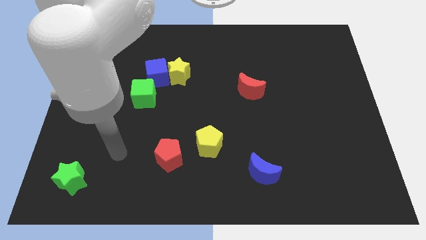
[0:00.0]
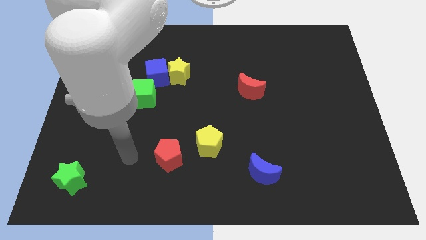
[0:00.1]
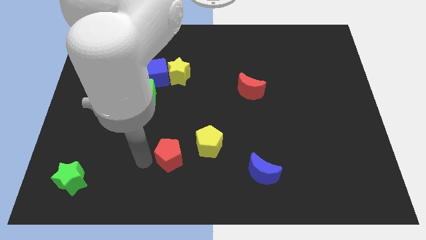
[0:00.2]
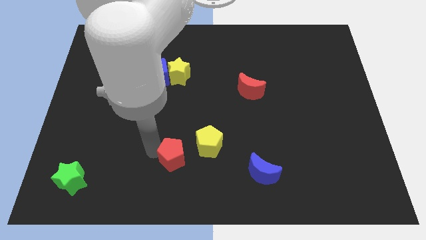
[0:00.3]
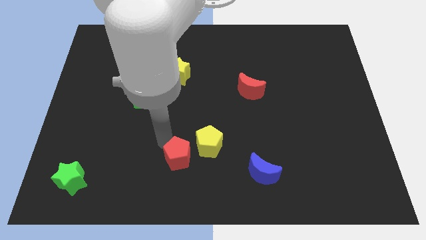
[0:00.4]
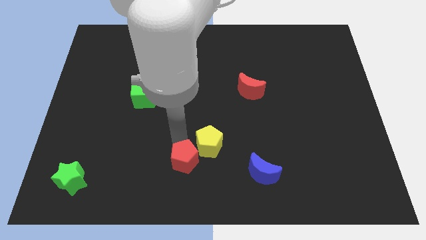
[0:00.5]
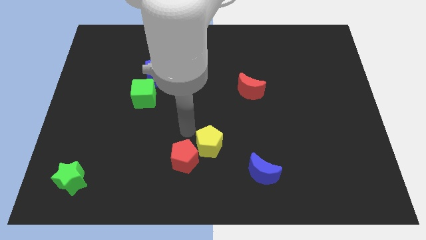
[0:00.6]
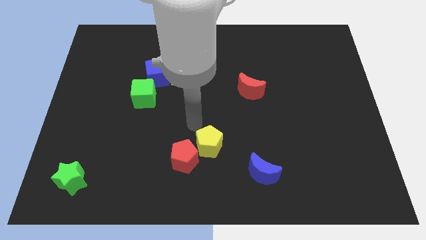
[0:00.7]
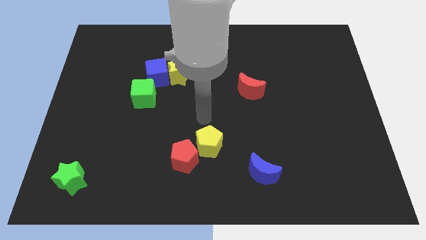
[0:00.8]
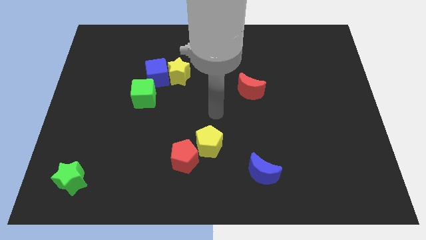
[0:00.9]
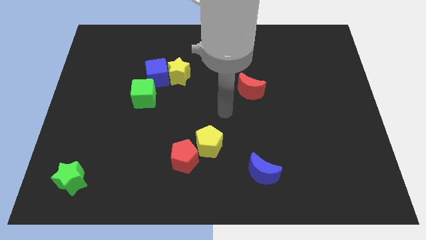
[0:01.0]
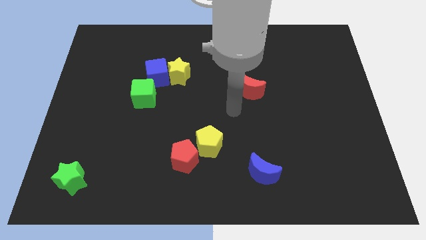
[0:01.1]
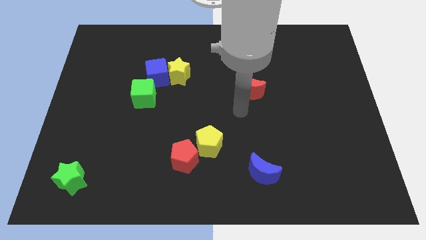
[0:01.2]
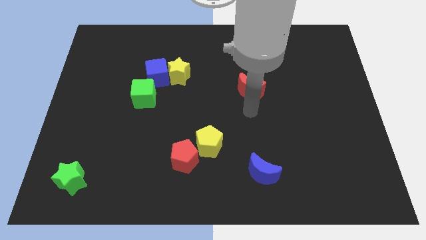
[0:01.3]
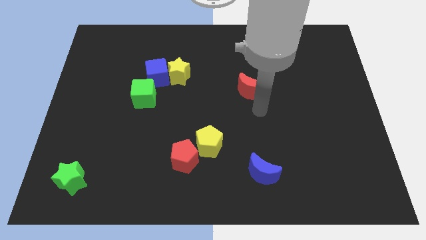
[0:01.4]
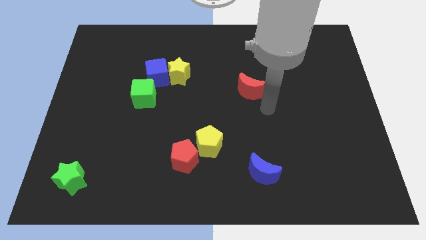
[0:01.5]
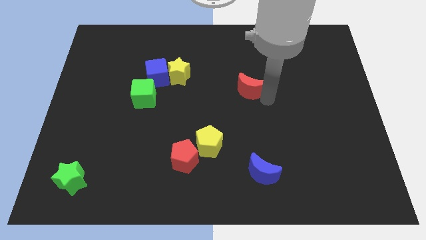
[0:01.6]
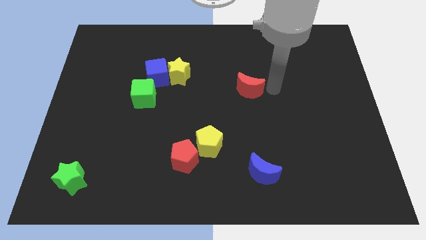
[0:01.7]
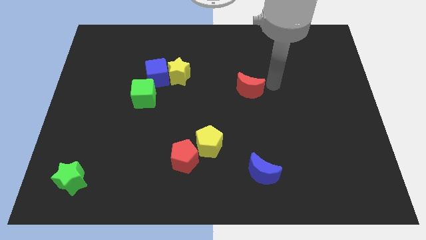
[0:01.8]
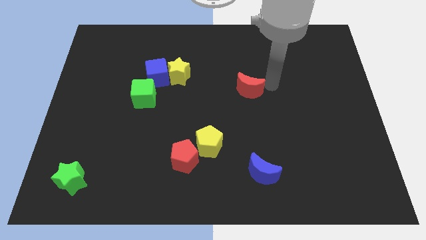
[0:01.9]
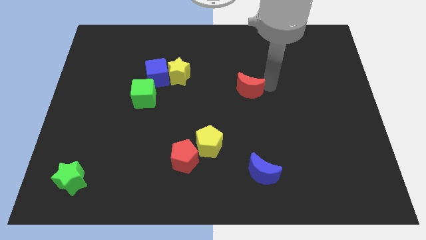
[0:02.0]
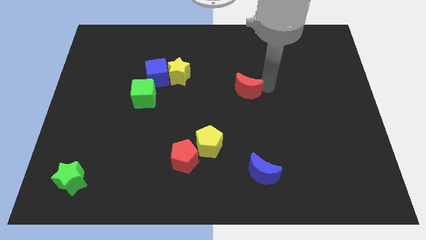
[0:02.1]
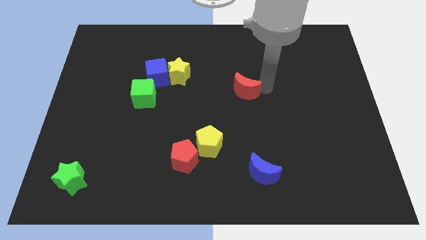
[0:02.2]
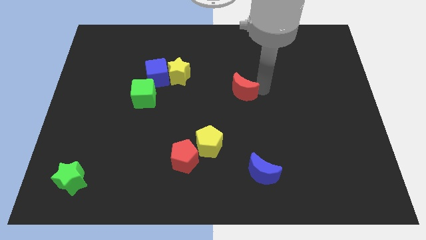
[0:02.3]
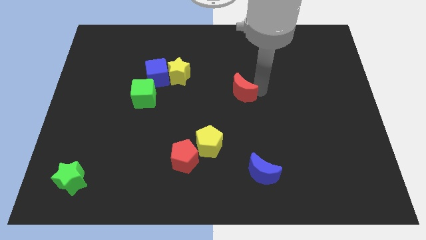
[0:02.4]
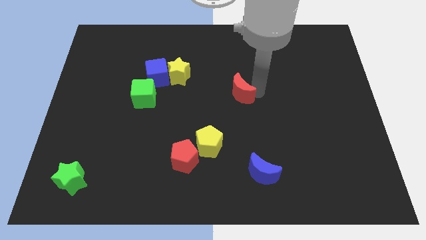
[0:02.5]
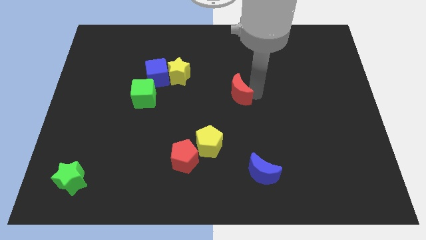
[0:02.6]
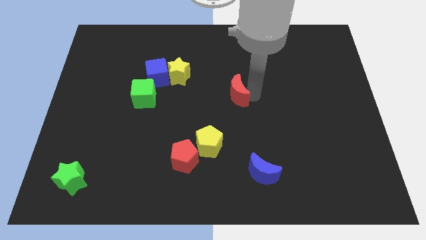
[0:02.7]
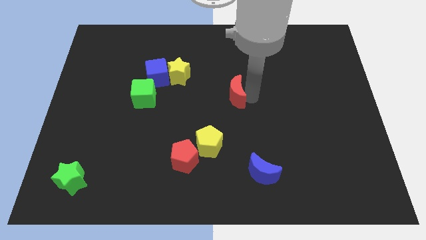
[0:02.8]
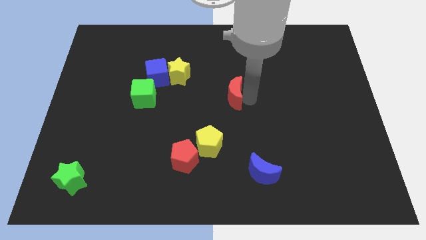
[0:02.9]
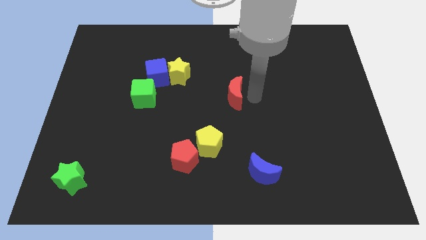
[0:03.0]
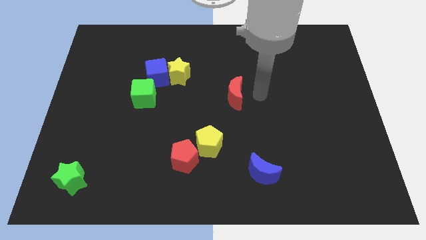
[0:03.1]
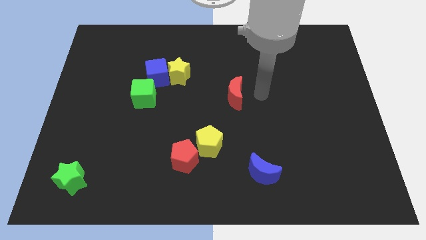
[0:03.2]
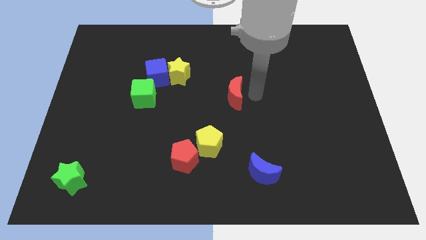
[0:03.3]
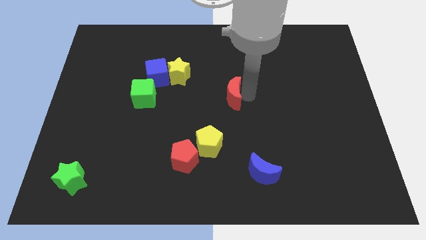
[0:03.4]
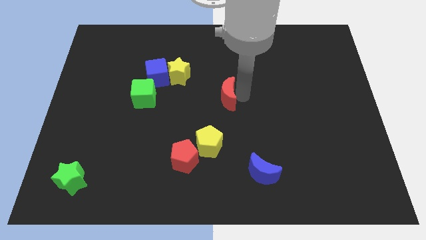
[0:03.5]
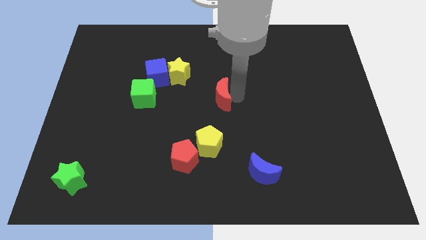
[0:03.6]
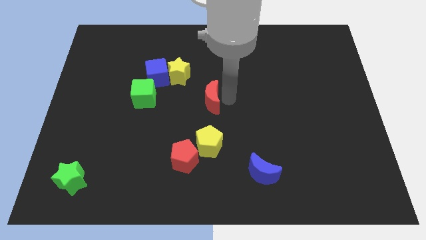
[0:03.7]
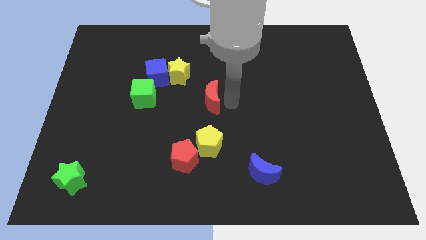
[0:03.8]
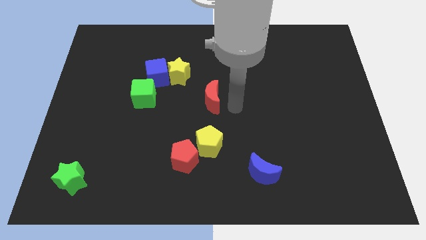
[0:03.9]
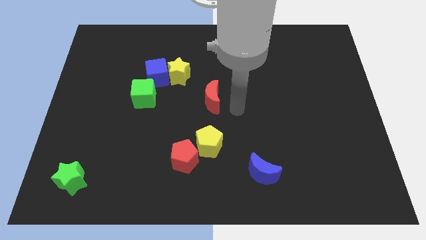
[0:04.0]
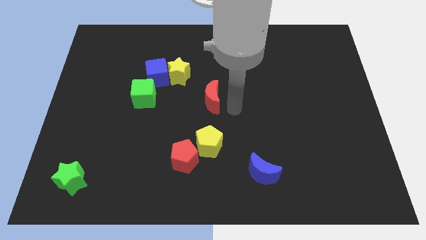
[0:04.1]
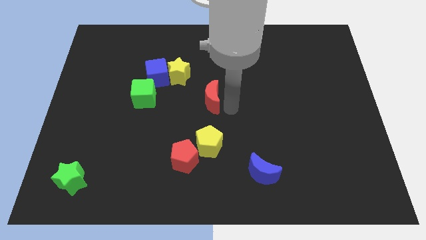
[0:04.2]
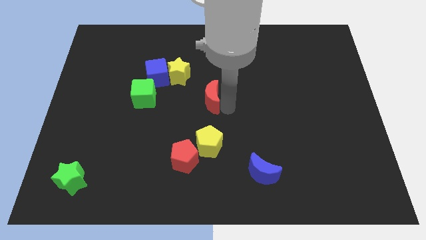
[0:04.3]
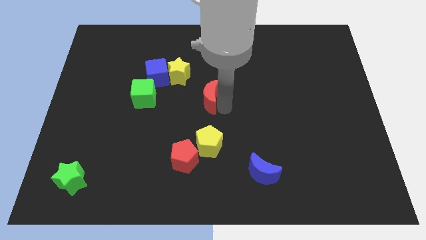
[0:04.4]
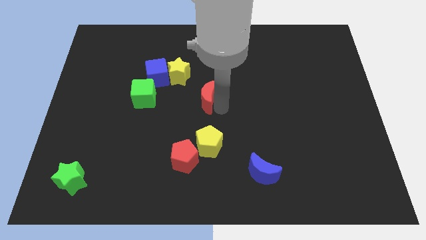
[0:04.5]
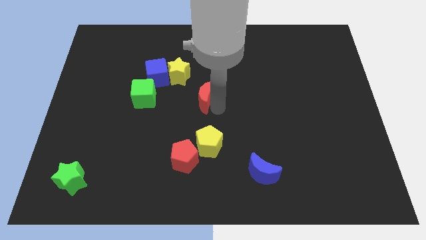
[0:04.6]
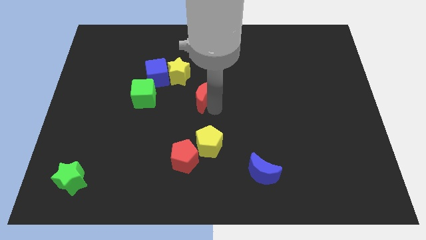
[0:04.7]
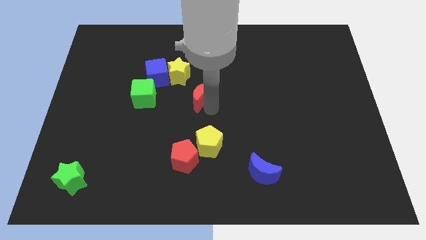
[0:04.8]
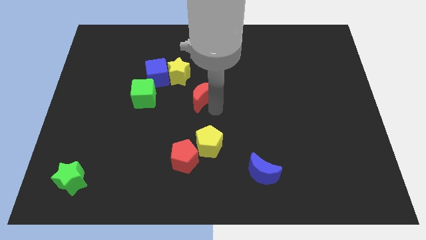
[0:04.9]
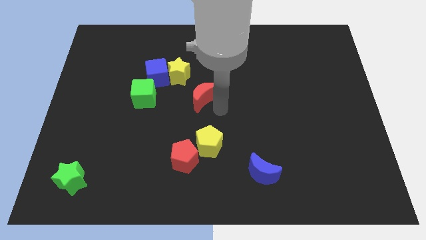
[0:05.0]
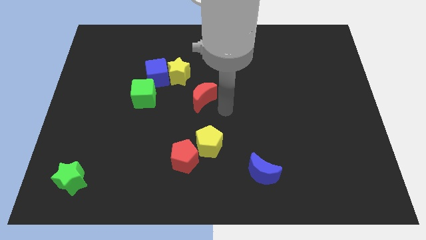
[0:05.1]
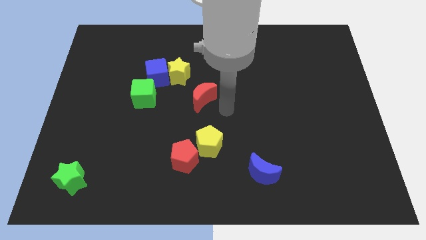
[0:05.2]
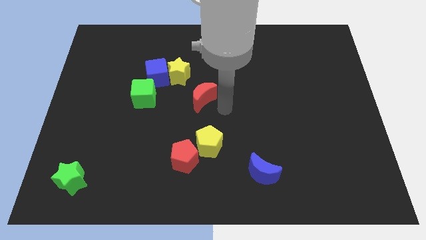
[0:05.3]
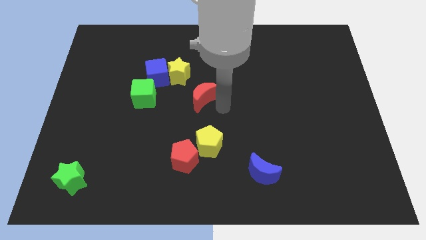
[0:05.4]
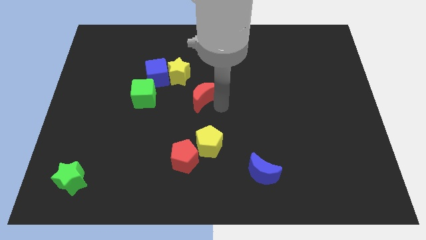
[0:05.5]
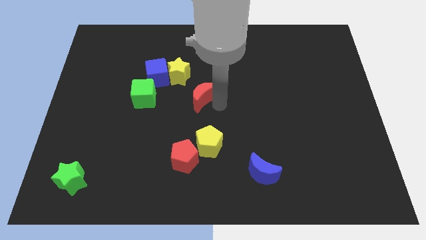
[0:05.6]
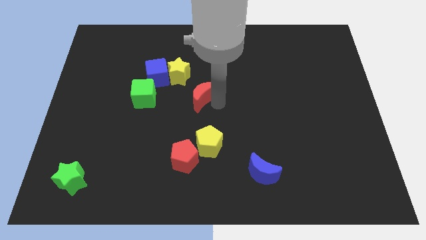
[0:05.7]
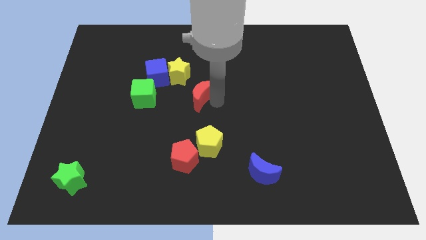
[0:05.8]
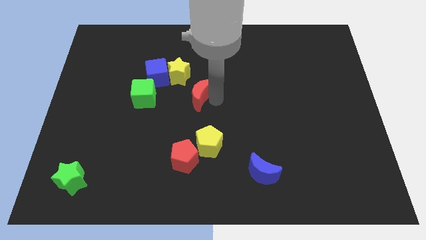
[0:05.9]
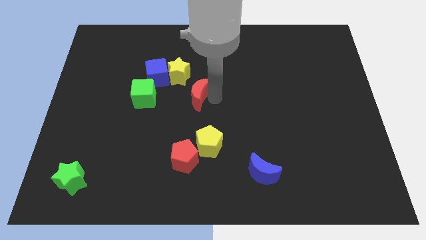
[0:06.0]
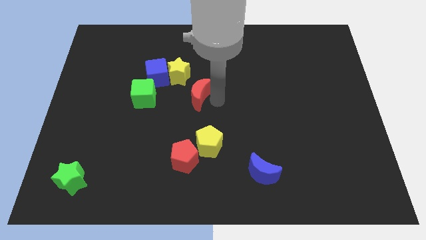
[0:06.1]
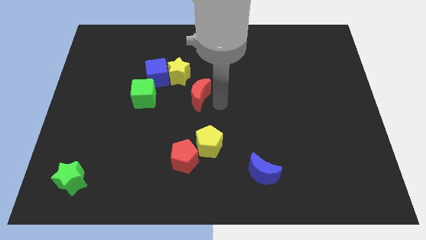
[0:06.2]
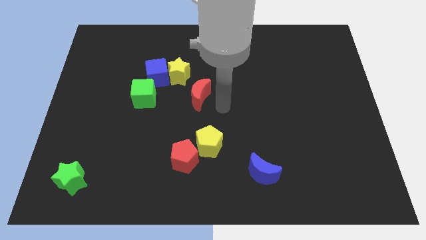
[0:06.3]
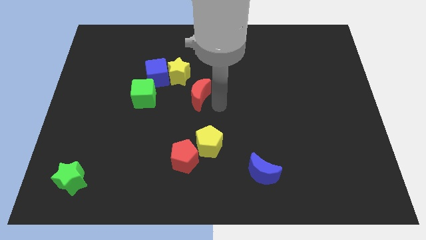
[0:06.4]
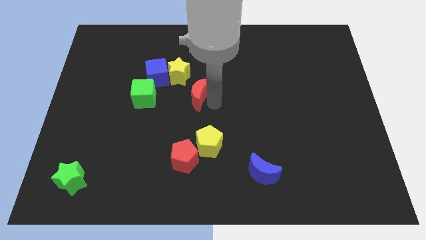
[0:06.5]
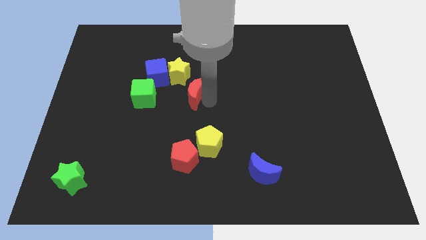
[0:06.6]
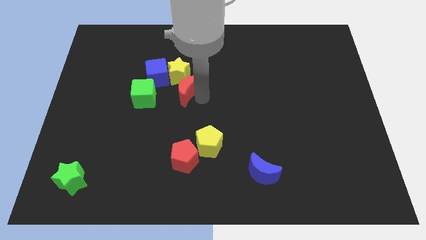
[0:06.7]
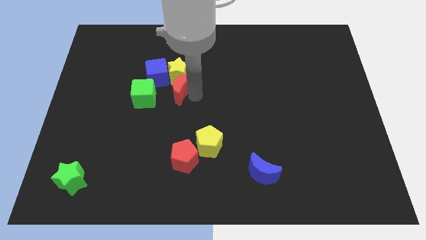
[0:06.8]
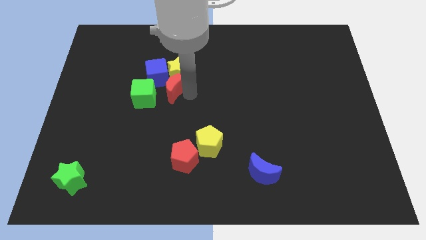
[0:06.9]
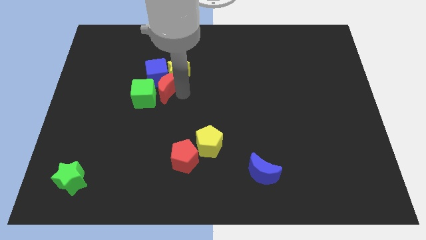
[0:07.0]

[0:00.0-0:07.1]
move the red moon close to the blue cube

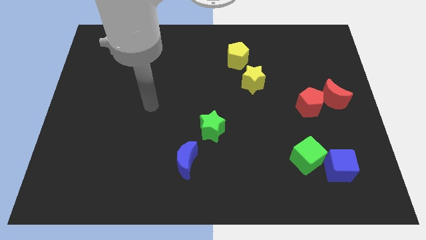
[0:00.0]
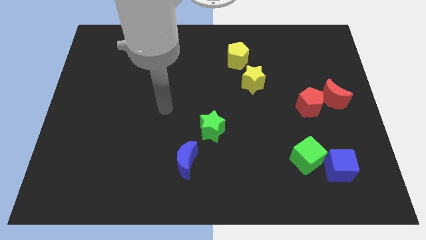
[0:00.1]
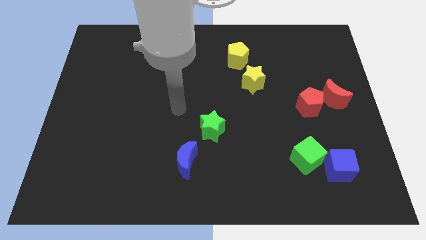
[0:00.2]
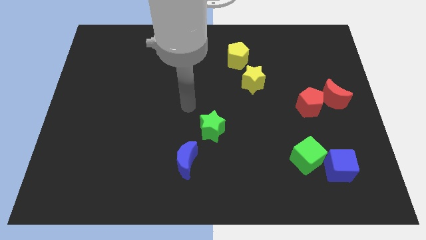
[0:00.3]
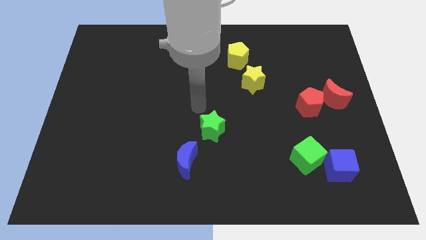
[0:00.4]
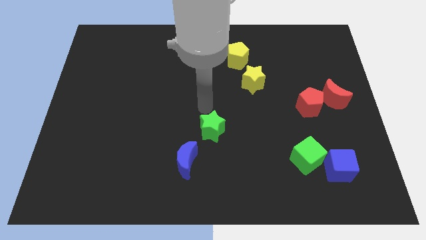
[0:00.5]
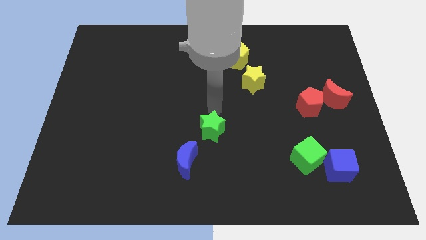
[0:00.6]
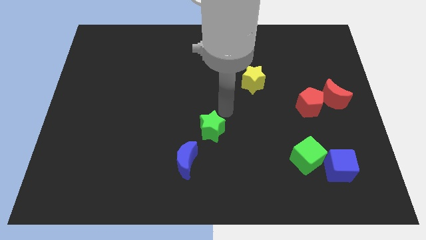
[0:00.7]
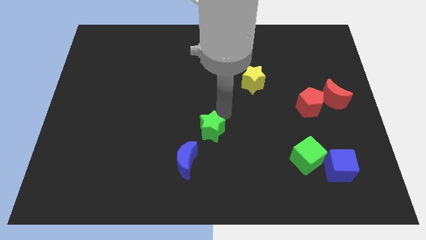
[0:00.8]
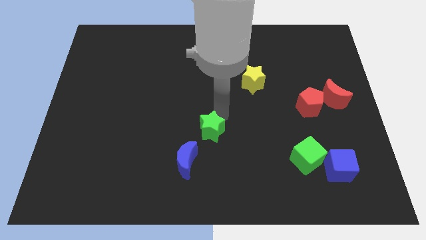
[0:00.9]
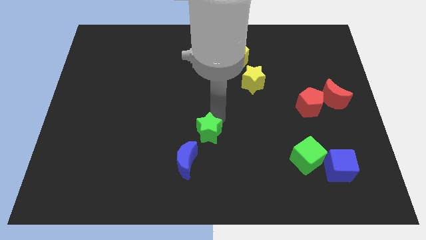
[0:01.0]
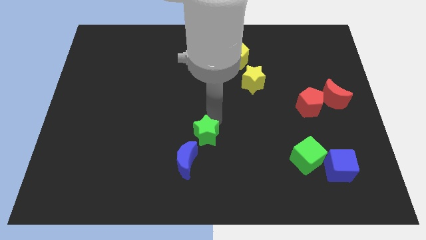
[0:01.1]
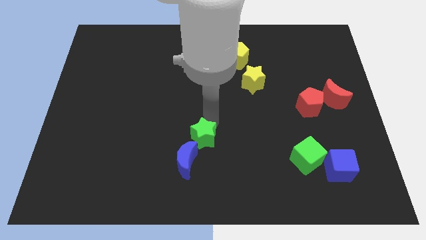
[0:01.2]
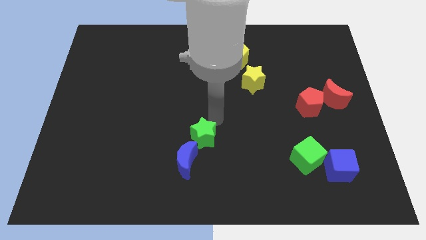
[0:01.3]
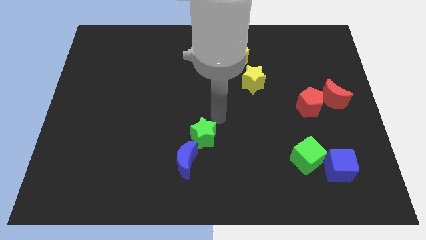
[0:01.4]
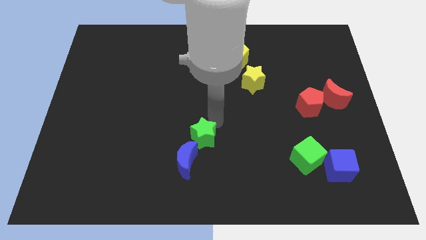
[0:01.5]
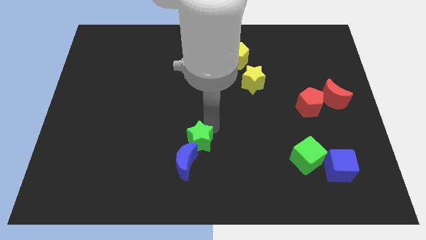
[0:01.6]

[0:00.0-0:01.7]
move the green star next to the blue moon
